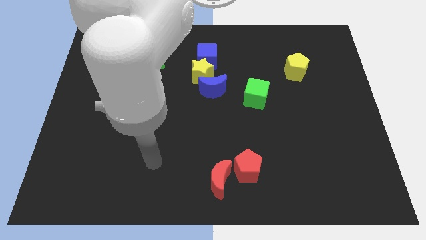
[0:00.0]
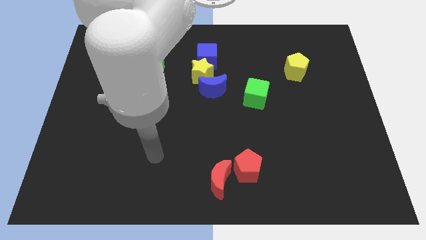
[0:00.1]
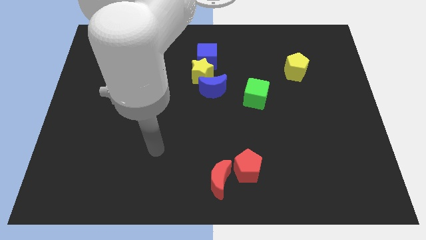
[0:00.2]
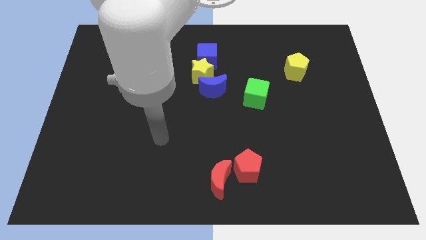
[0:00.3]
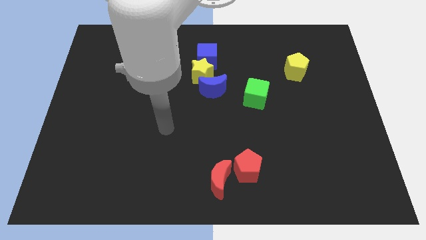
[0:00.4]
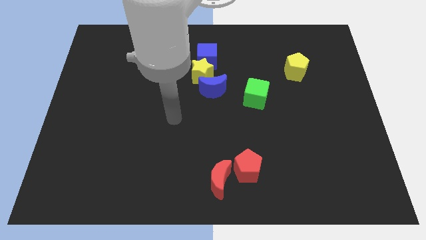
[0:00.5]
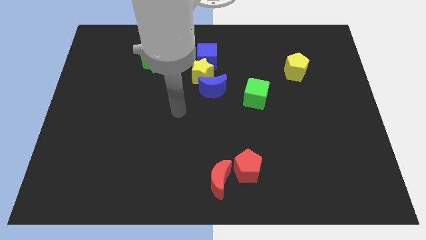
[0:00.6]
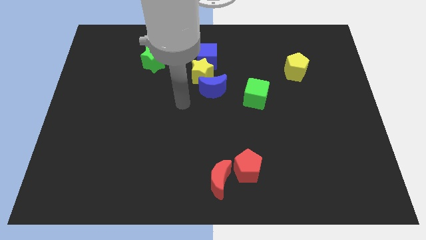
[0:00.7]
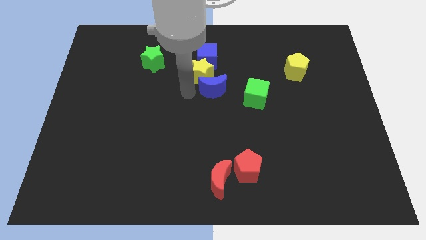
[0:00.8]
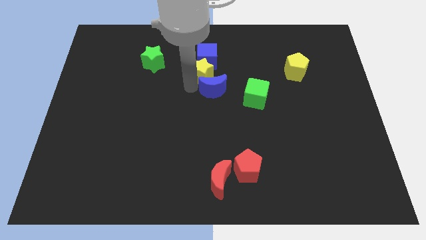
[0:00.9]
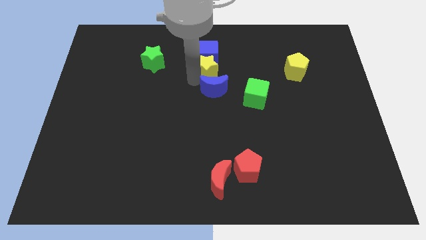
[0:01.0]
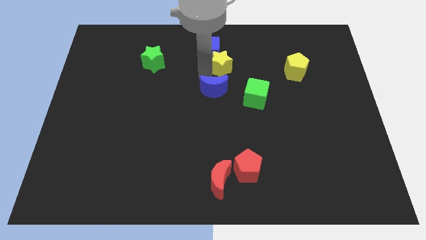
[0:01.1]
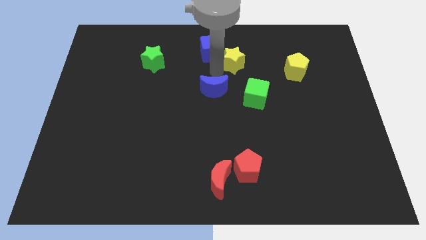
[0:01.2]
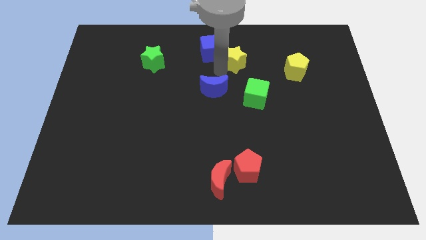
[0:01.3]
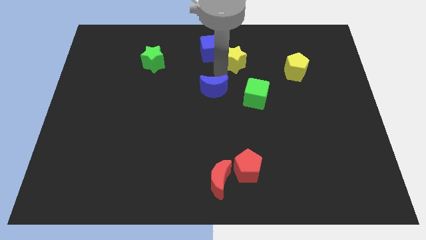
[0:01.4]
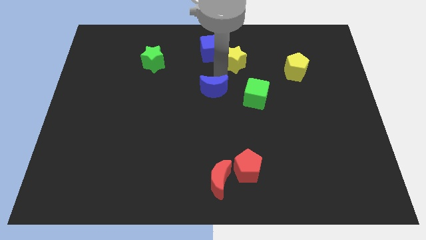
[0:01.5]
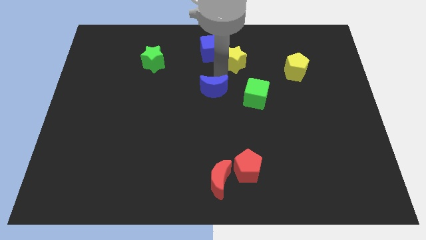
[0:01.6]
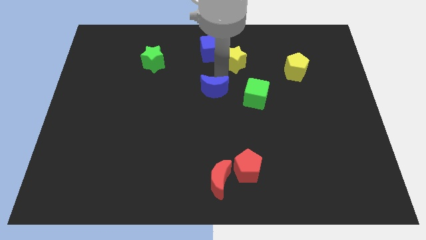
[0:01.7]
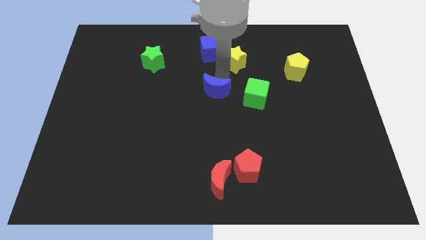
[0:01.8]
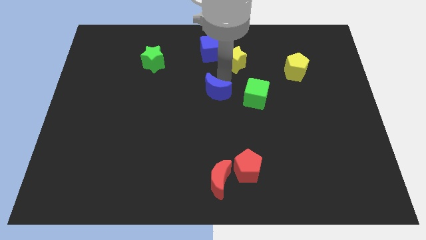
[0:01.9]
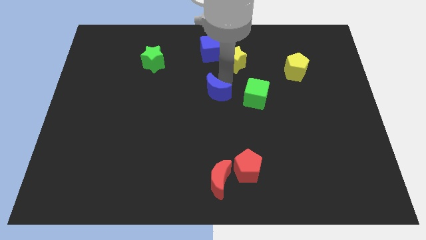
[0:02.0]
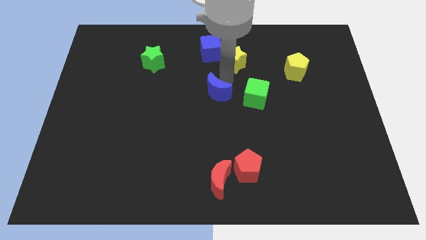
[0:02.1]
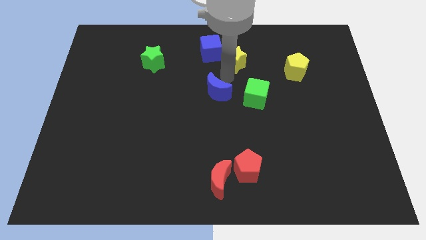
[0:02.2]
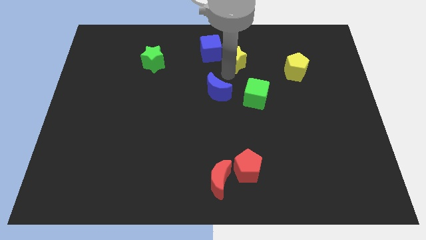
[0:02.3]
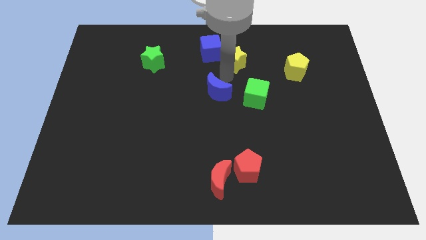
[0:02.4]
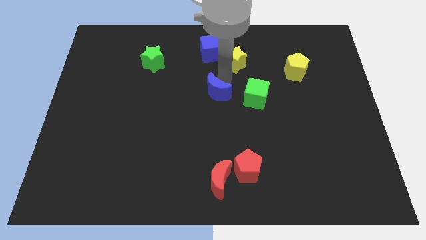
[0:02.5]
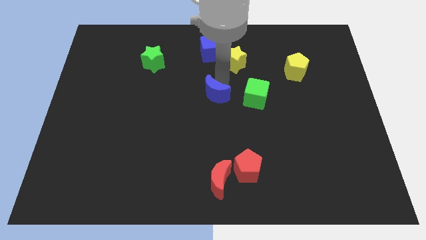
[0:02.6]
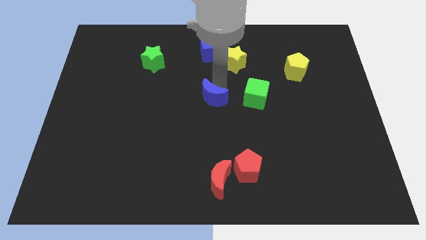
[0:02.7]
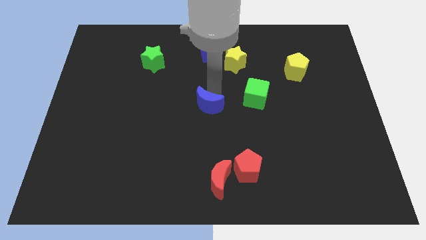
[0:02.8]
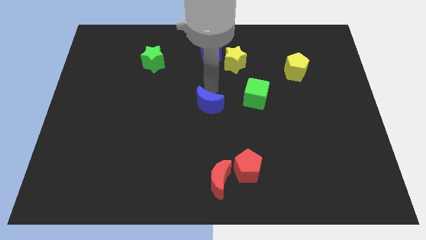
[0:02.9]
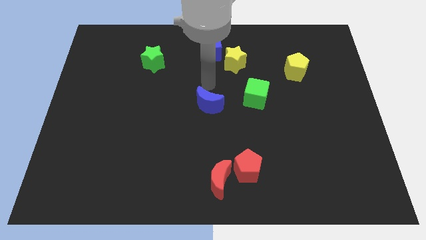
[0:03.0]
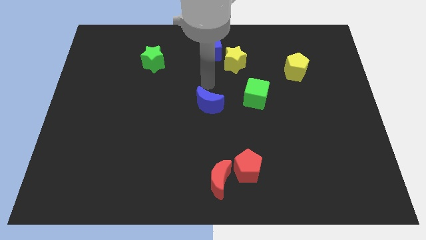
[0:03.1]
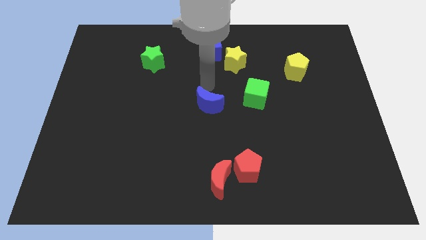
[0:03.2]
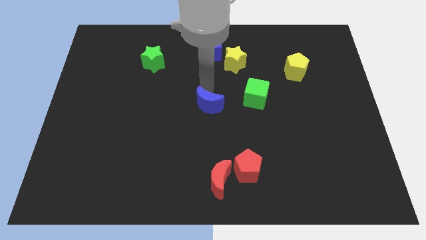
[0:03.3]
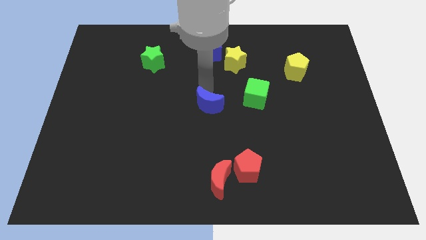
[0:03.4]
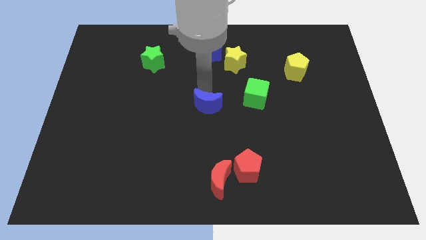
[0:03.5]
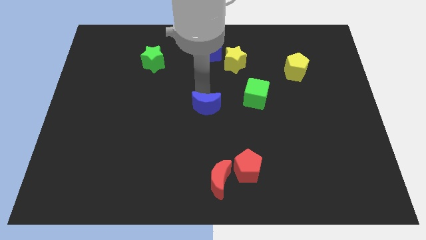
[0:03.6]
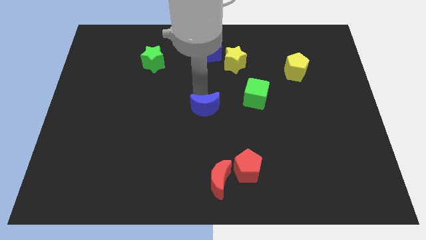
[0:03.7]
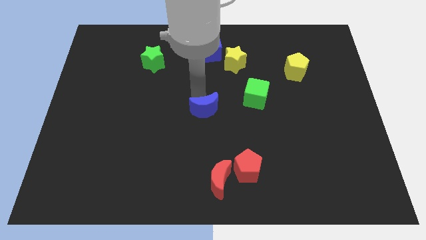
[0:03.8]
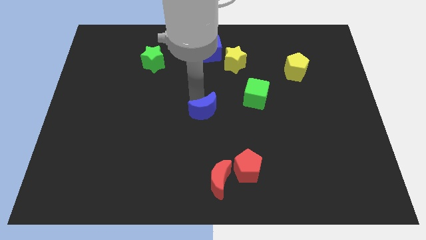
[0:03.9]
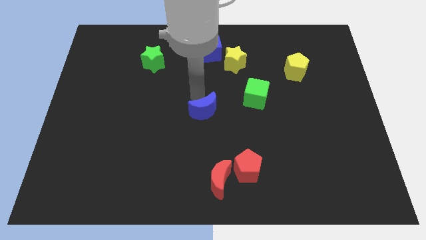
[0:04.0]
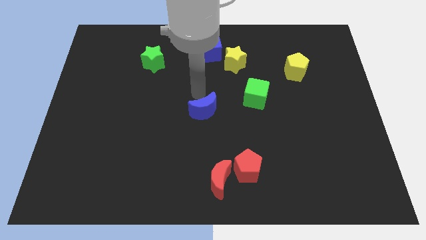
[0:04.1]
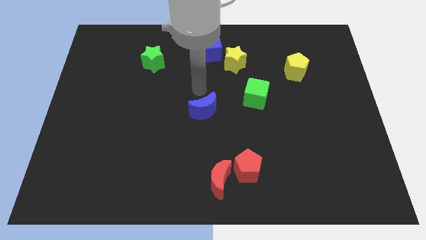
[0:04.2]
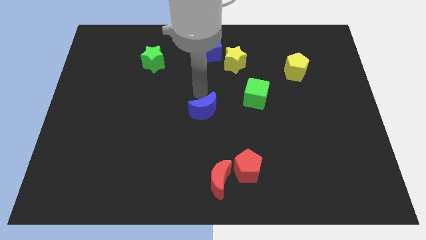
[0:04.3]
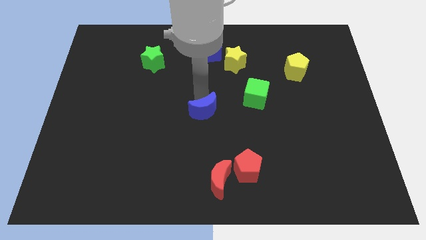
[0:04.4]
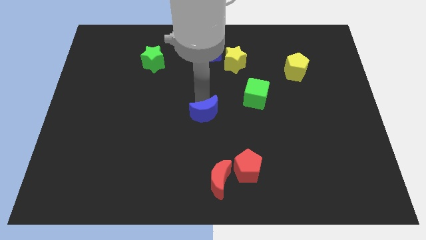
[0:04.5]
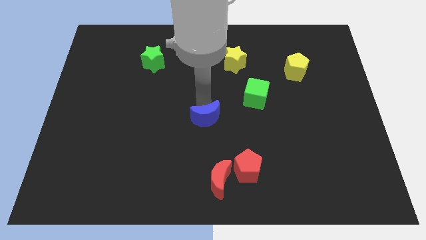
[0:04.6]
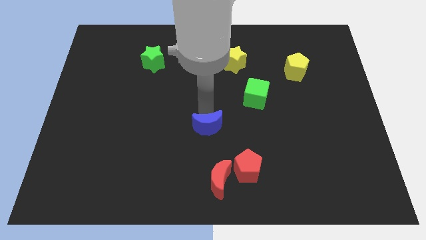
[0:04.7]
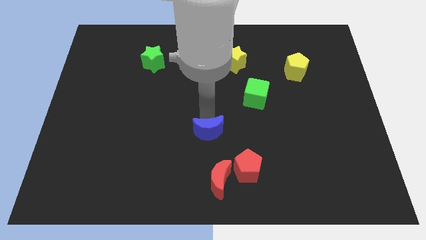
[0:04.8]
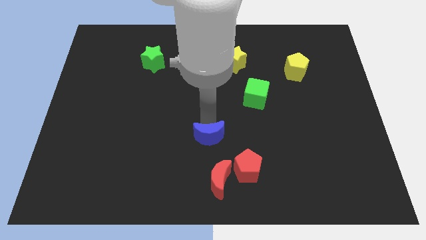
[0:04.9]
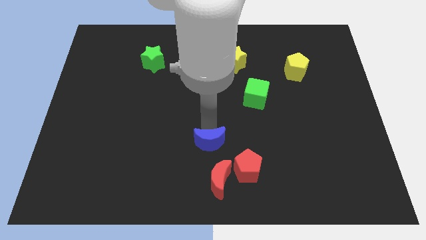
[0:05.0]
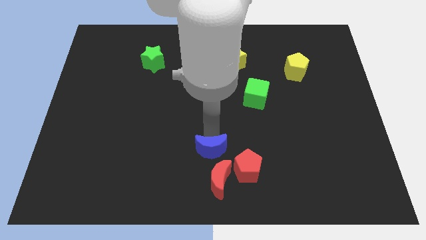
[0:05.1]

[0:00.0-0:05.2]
slide the blue moon just left of the red pentagon

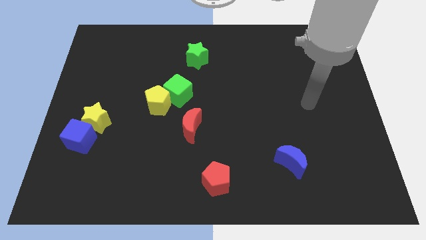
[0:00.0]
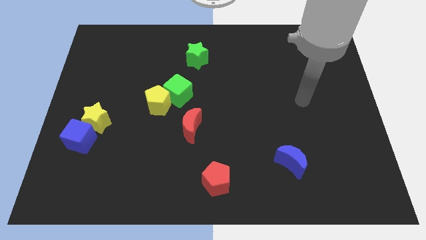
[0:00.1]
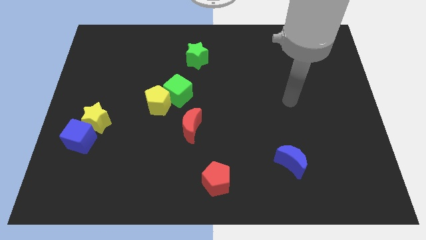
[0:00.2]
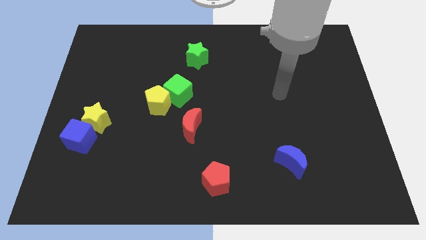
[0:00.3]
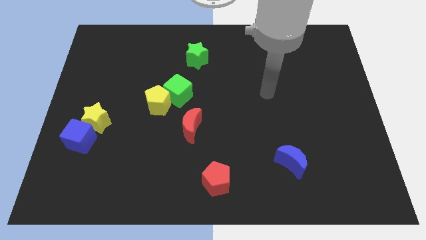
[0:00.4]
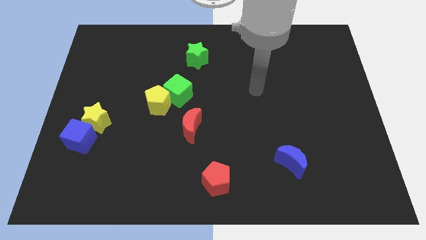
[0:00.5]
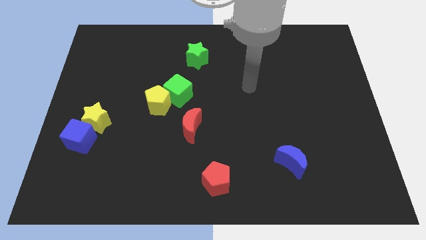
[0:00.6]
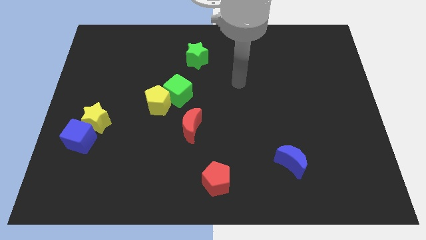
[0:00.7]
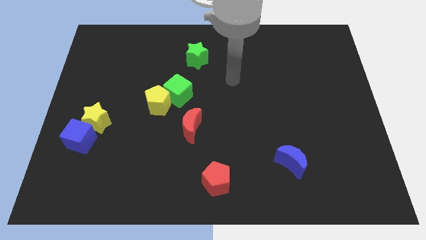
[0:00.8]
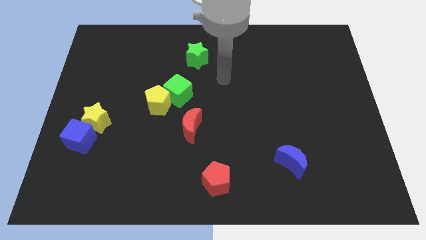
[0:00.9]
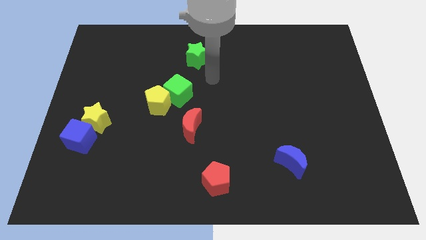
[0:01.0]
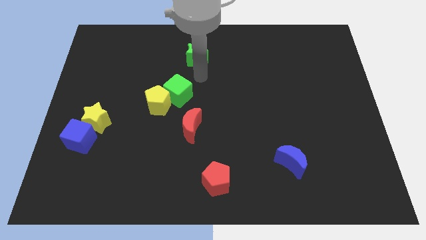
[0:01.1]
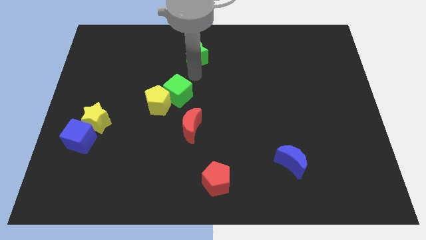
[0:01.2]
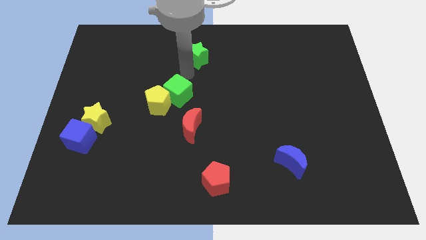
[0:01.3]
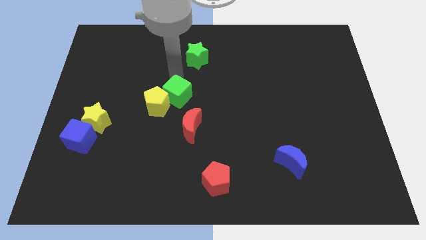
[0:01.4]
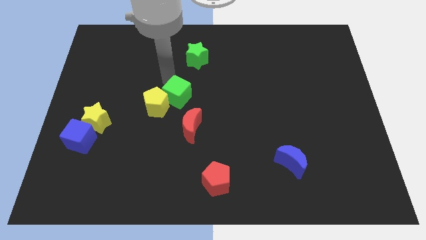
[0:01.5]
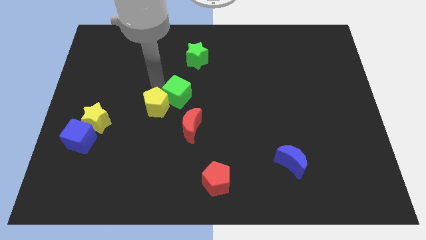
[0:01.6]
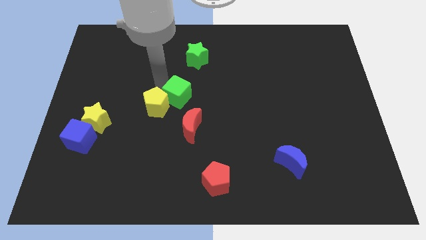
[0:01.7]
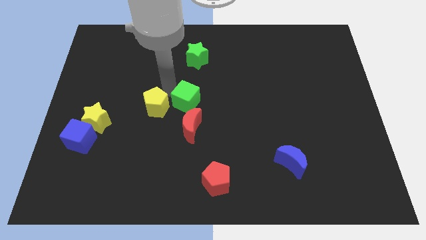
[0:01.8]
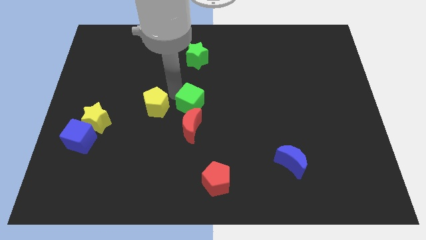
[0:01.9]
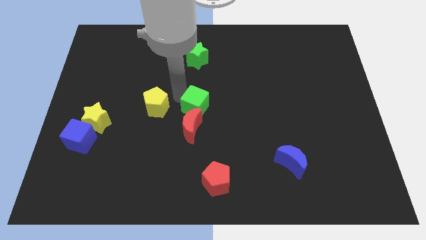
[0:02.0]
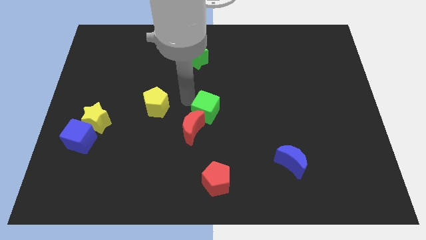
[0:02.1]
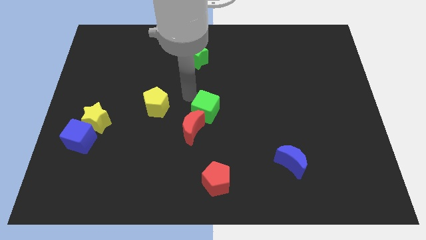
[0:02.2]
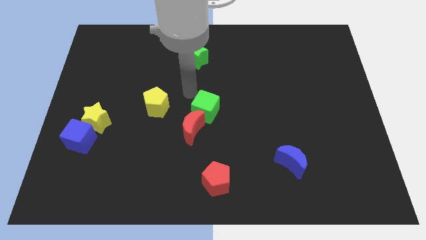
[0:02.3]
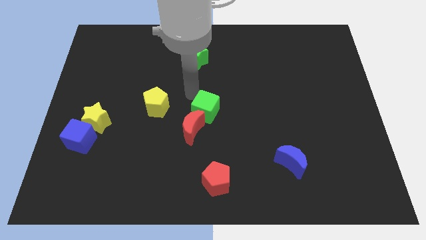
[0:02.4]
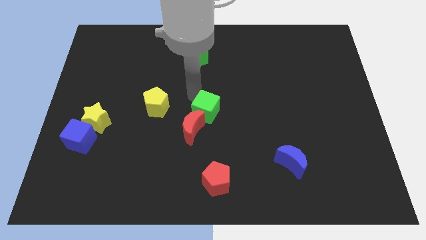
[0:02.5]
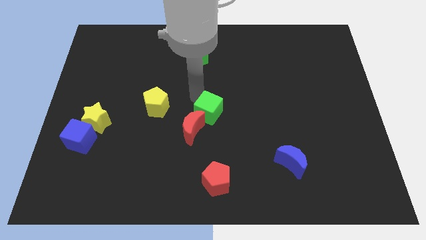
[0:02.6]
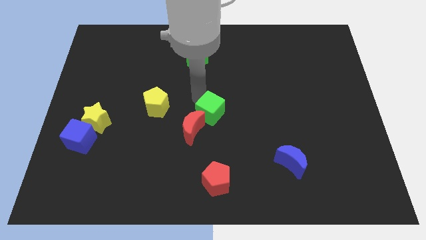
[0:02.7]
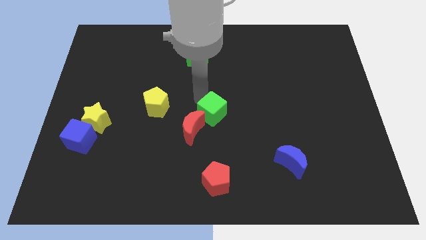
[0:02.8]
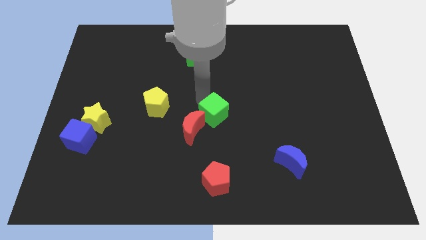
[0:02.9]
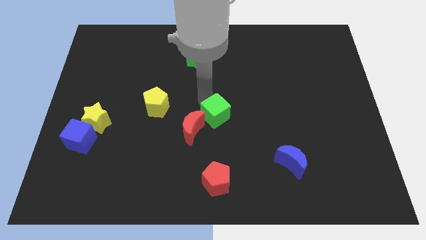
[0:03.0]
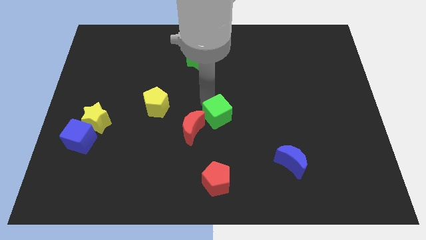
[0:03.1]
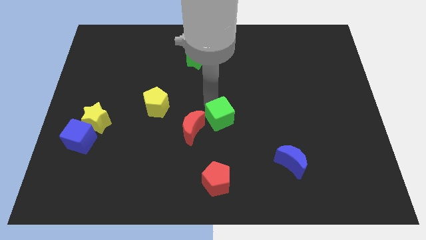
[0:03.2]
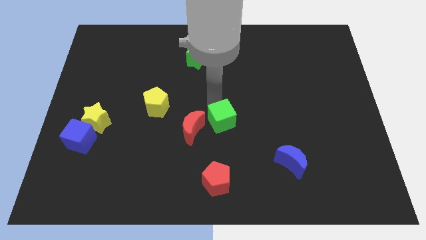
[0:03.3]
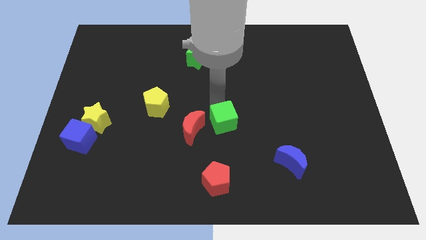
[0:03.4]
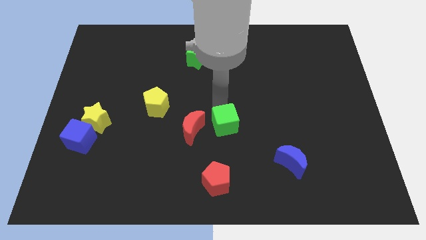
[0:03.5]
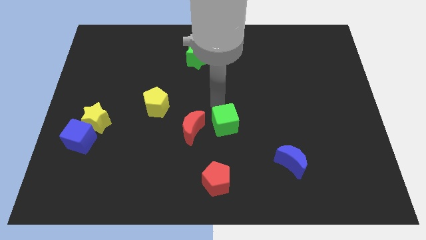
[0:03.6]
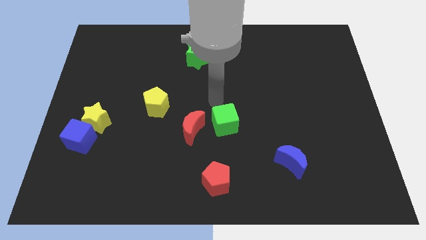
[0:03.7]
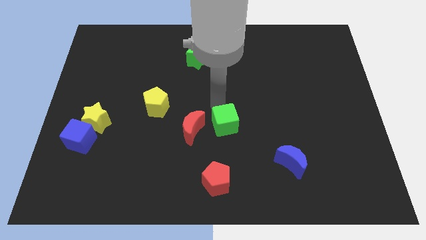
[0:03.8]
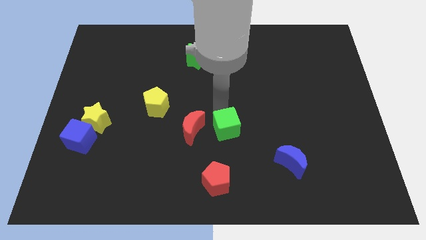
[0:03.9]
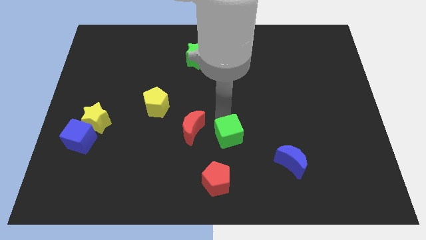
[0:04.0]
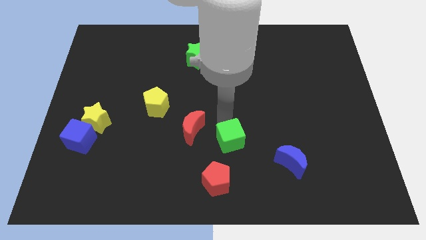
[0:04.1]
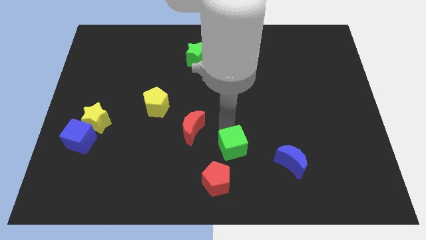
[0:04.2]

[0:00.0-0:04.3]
slide the green cube to the top right side of the red pentagon
